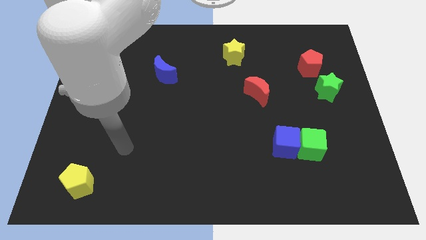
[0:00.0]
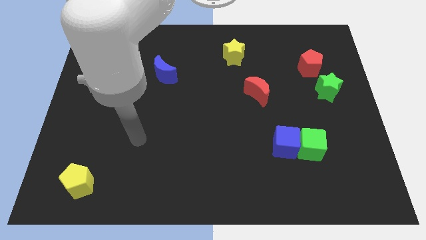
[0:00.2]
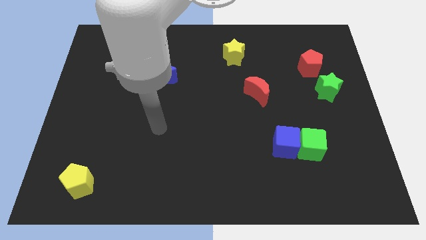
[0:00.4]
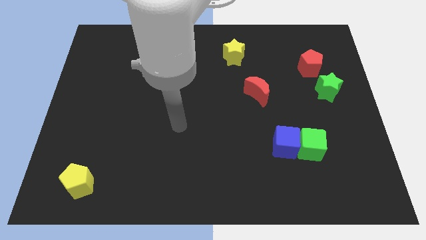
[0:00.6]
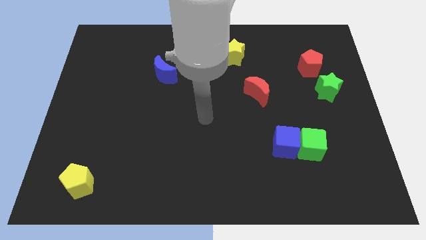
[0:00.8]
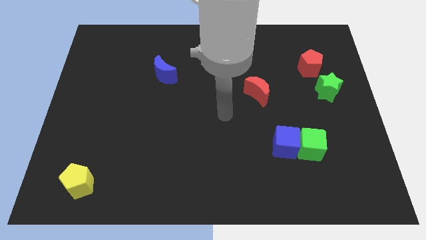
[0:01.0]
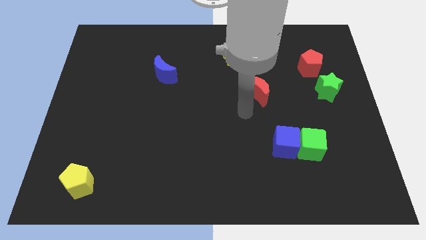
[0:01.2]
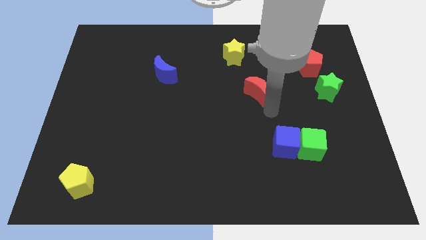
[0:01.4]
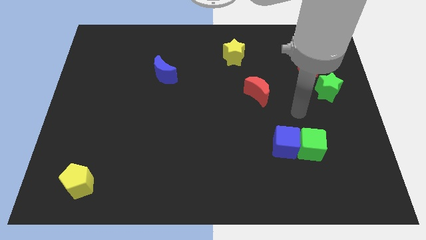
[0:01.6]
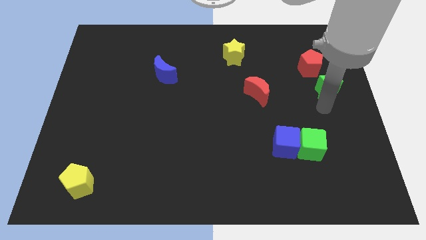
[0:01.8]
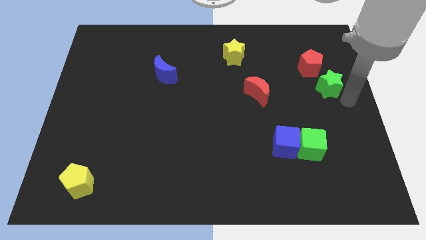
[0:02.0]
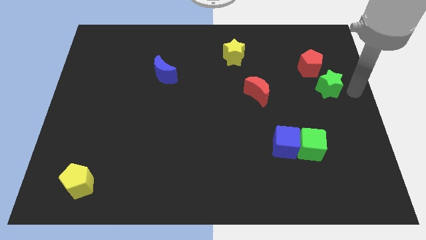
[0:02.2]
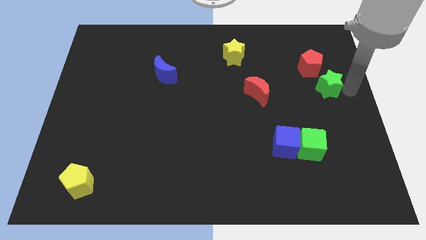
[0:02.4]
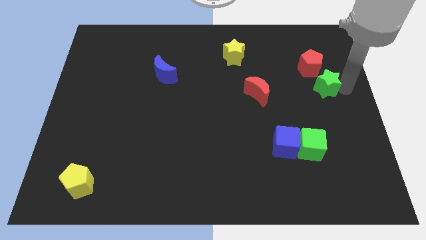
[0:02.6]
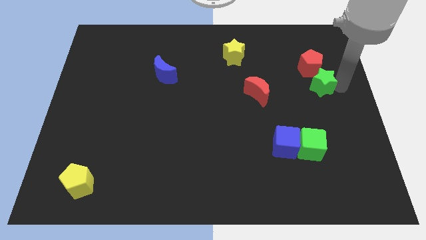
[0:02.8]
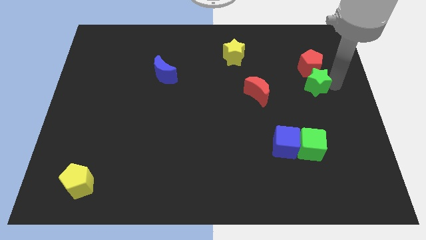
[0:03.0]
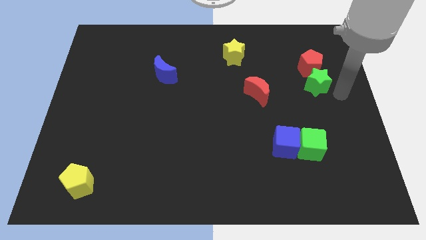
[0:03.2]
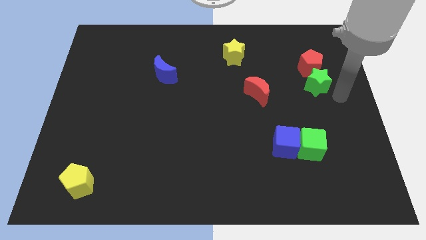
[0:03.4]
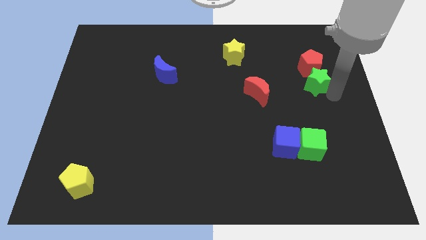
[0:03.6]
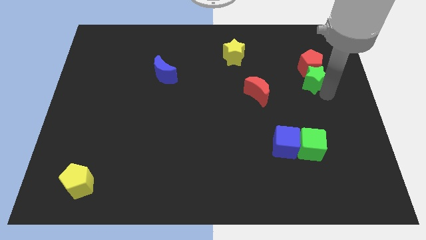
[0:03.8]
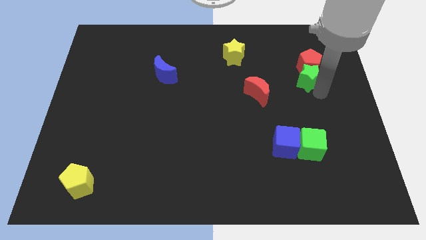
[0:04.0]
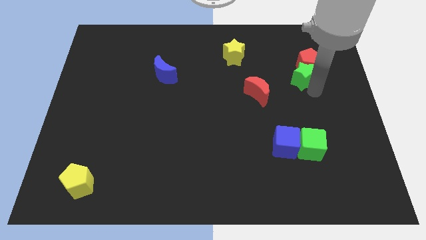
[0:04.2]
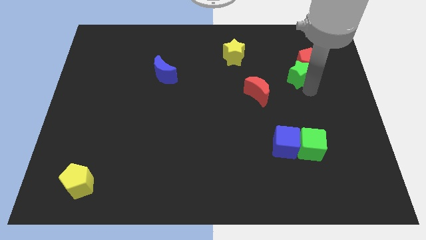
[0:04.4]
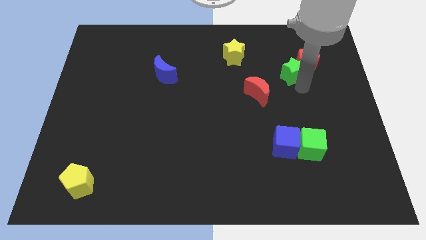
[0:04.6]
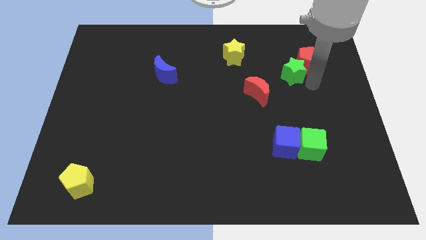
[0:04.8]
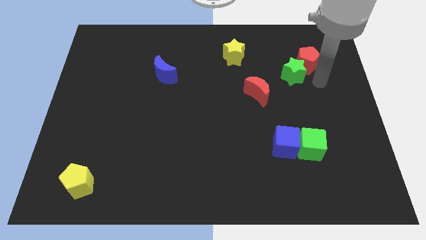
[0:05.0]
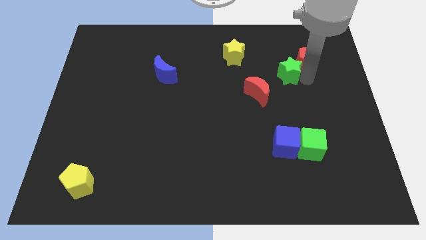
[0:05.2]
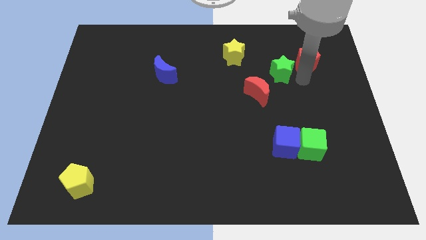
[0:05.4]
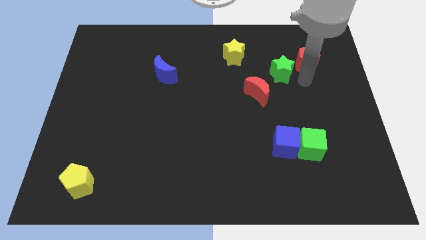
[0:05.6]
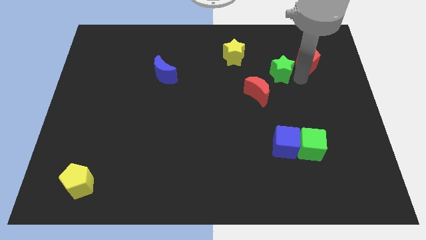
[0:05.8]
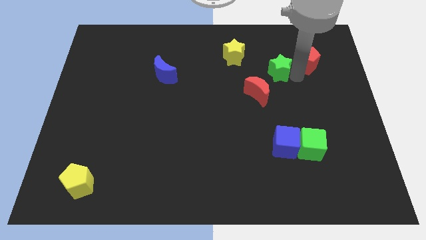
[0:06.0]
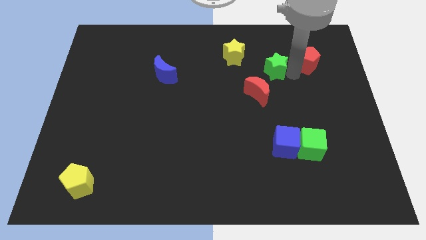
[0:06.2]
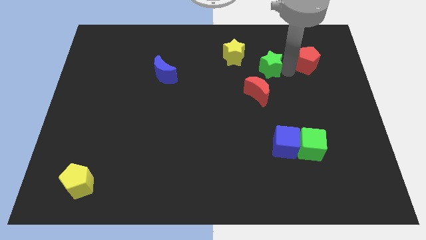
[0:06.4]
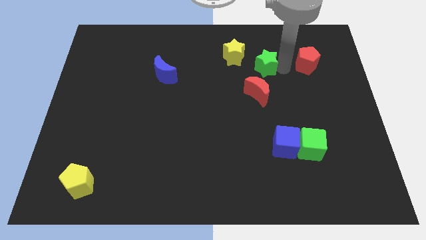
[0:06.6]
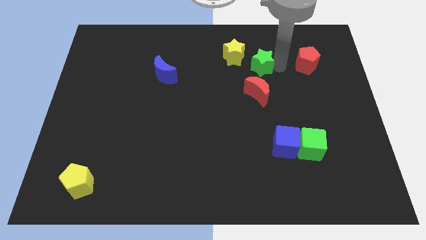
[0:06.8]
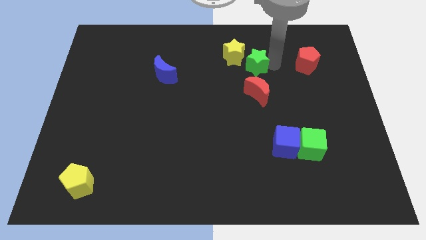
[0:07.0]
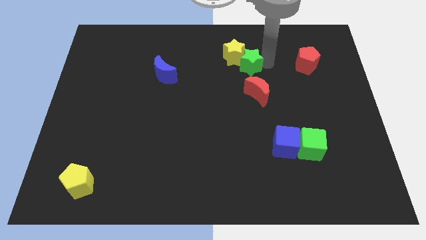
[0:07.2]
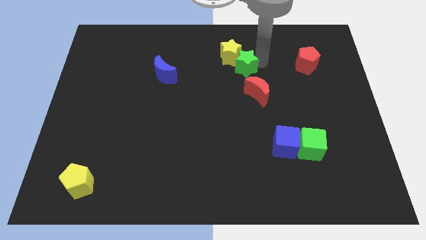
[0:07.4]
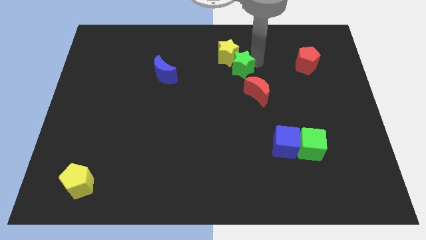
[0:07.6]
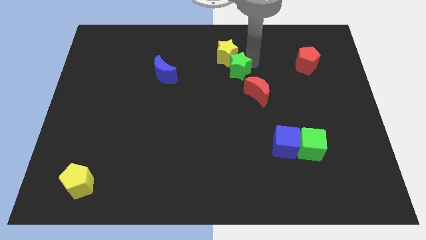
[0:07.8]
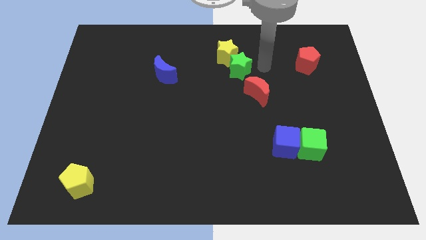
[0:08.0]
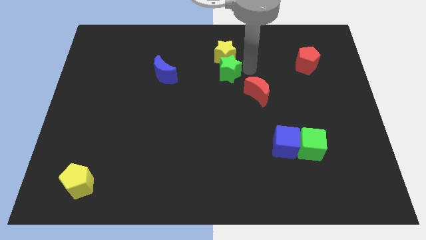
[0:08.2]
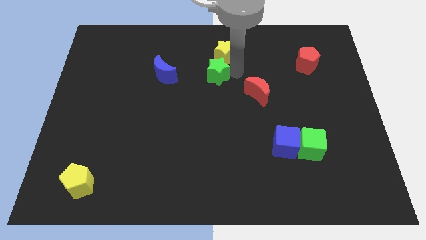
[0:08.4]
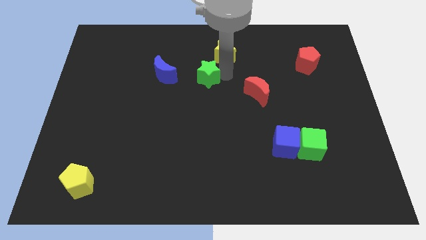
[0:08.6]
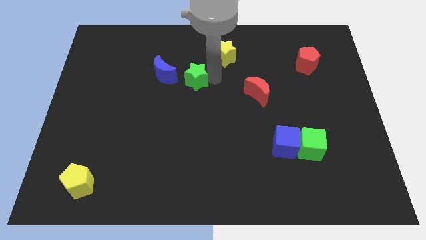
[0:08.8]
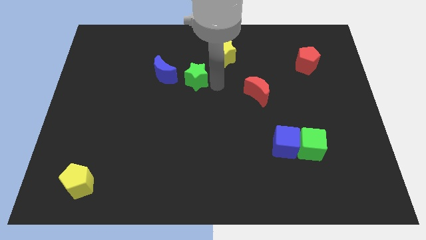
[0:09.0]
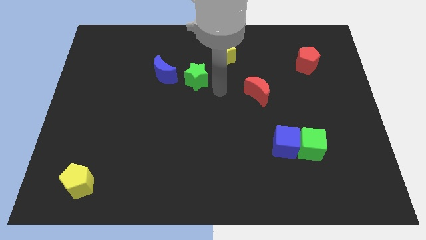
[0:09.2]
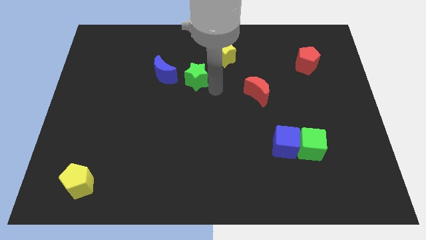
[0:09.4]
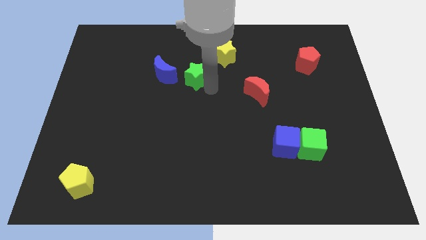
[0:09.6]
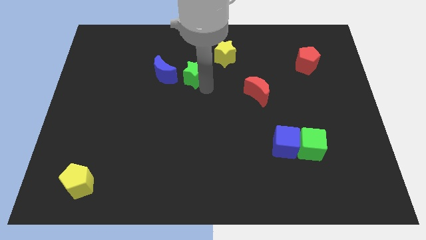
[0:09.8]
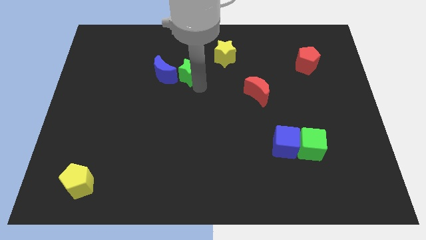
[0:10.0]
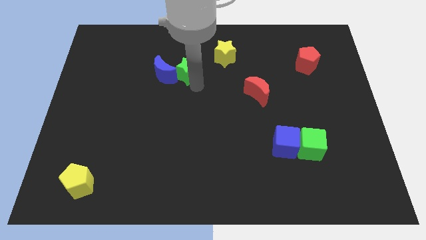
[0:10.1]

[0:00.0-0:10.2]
put the green star towards the blue moon

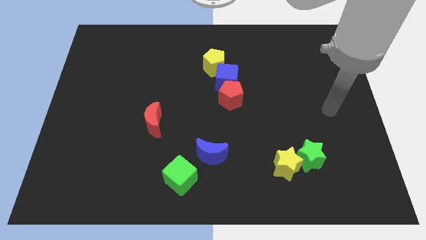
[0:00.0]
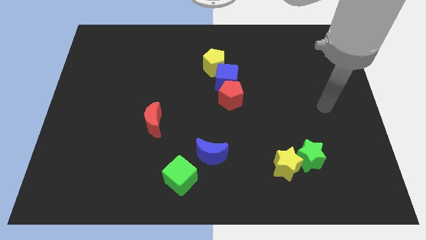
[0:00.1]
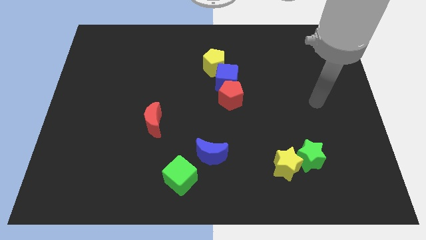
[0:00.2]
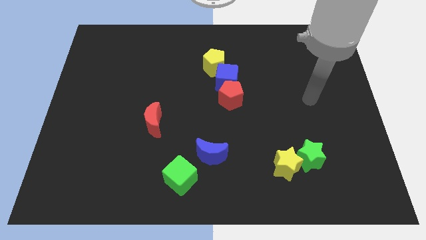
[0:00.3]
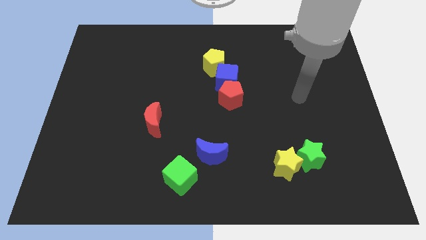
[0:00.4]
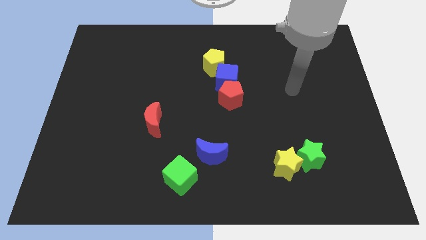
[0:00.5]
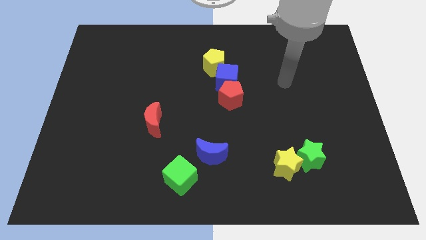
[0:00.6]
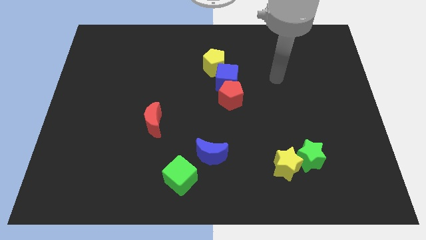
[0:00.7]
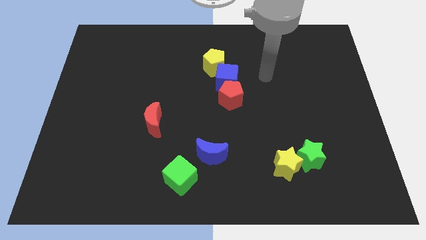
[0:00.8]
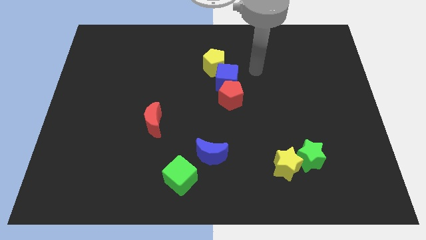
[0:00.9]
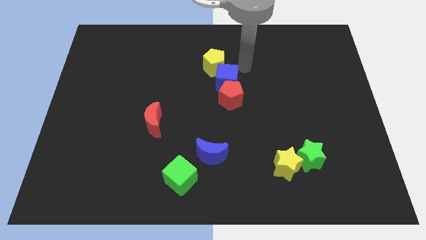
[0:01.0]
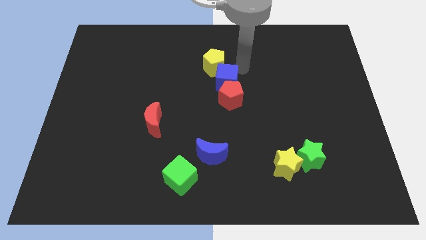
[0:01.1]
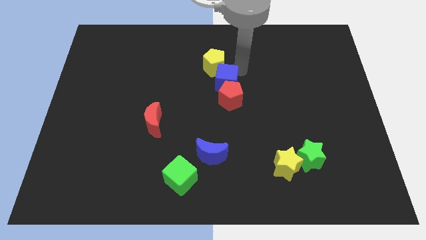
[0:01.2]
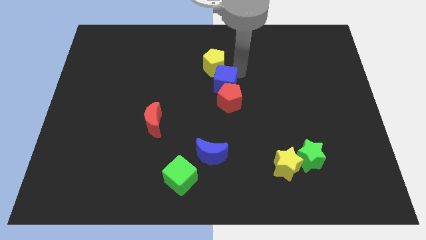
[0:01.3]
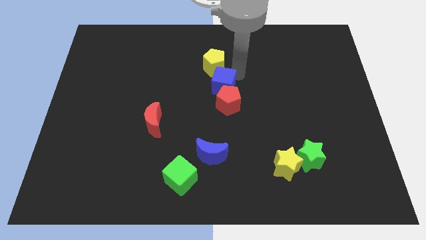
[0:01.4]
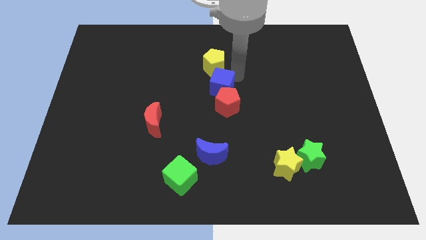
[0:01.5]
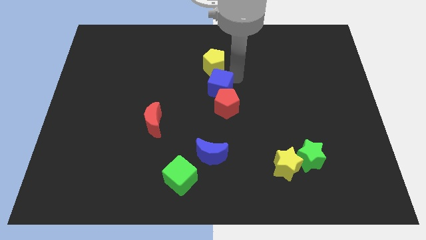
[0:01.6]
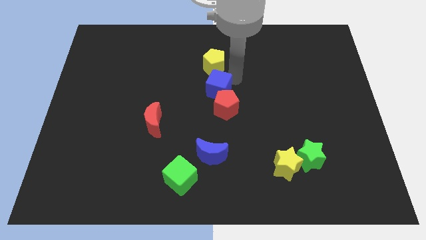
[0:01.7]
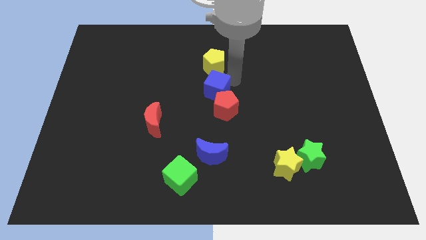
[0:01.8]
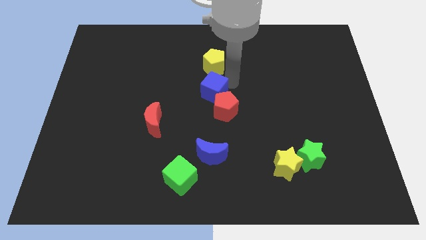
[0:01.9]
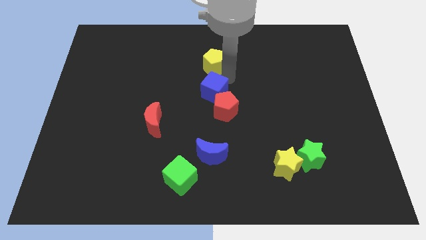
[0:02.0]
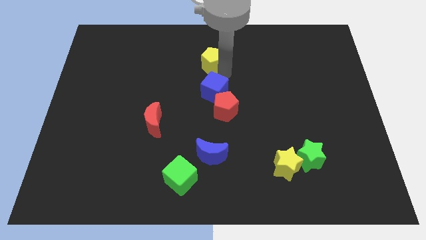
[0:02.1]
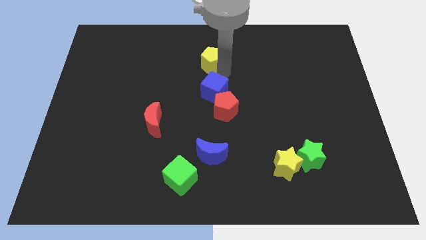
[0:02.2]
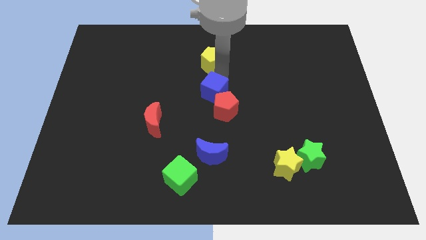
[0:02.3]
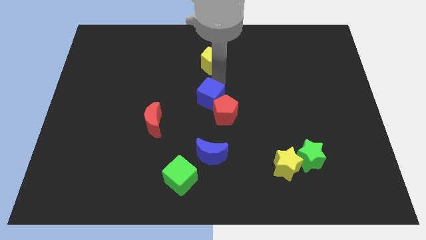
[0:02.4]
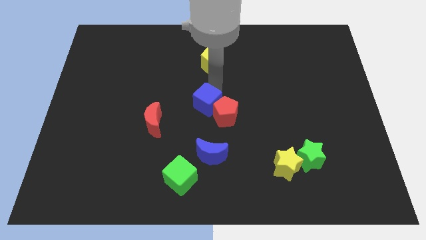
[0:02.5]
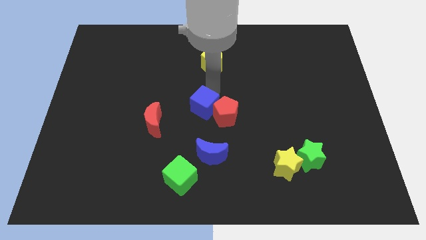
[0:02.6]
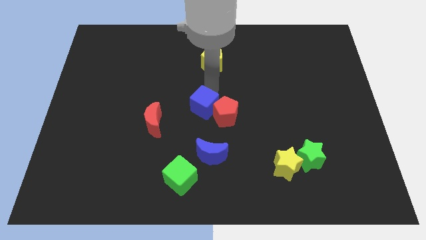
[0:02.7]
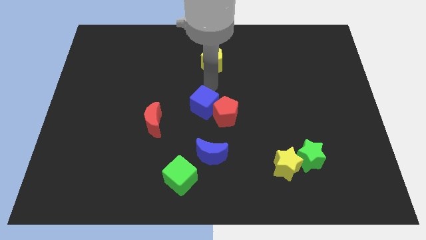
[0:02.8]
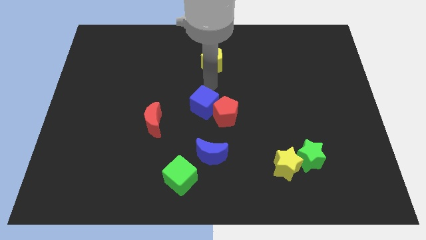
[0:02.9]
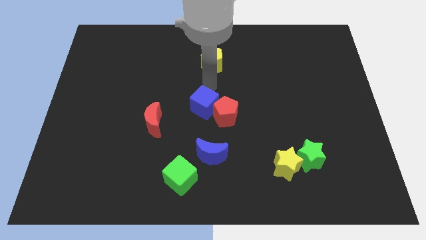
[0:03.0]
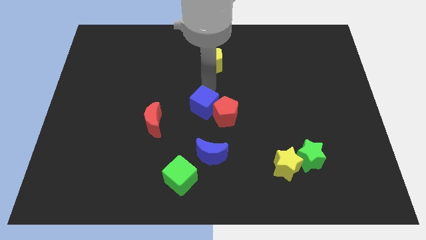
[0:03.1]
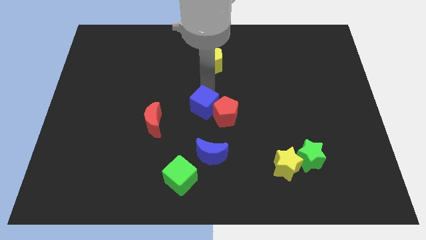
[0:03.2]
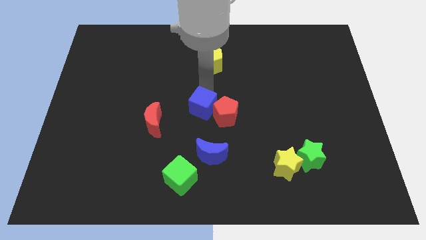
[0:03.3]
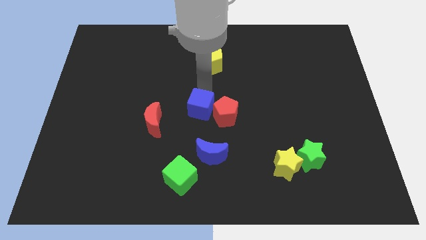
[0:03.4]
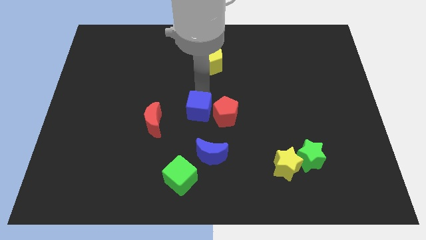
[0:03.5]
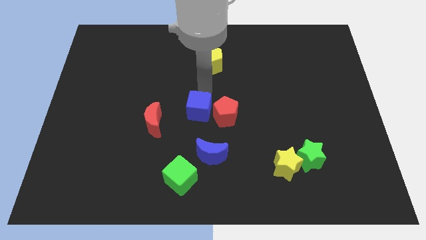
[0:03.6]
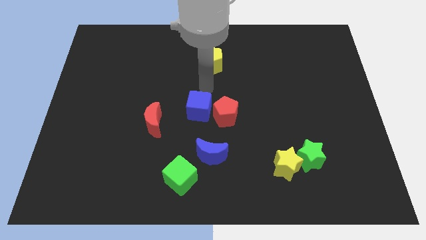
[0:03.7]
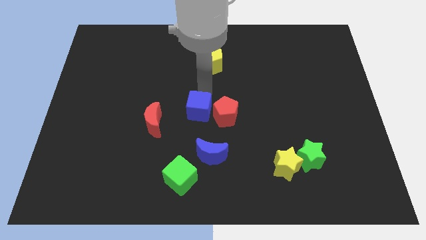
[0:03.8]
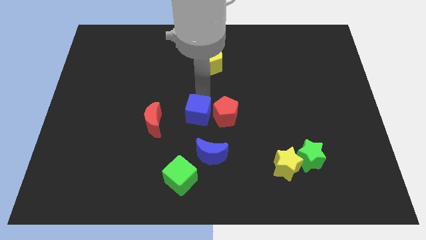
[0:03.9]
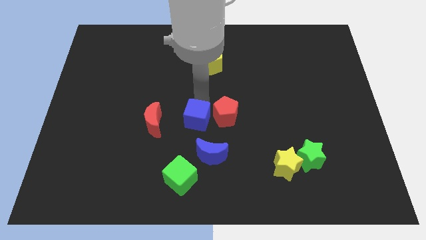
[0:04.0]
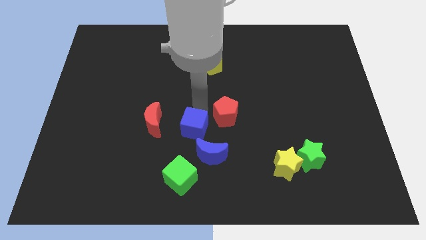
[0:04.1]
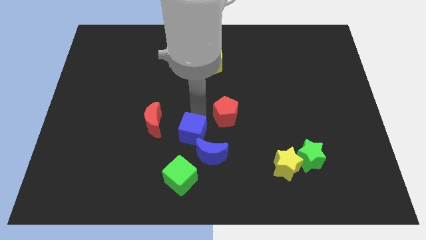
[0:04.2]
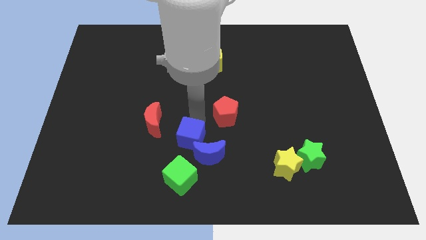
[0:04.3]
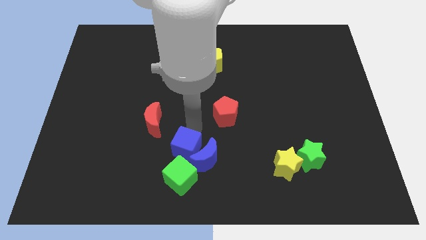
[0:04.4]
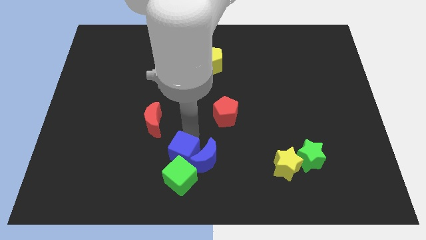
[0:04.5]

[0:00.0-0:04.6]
slide the blue cube next to the green cube
